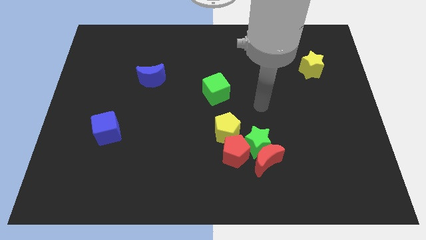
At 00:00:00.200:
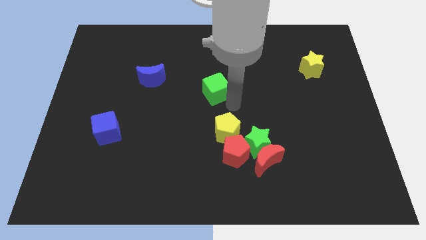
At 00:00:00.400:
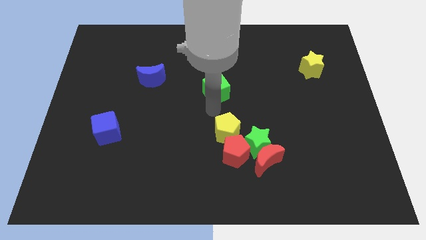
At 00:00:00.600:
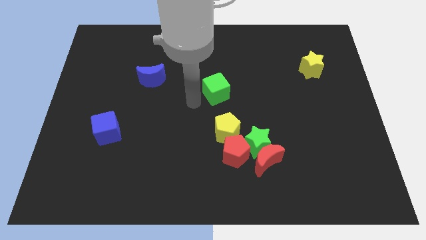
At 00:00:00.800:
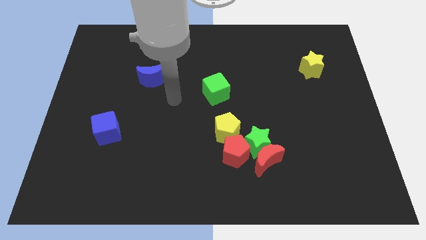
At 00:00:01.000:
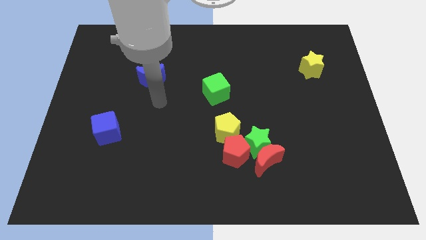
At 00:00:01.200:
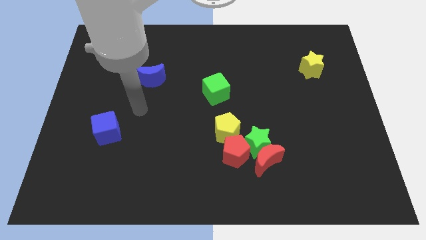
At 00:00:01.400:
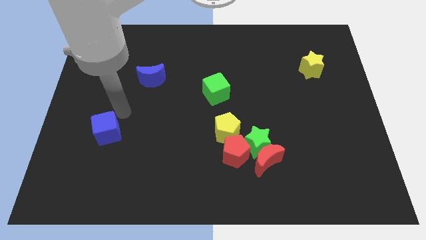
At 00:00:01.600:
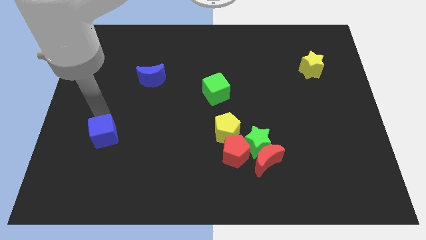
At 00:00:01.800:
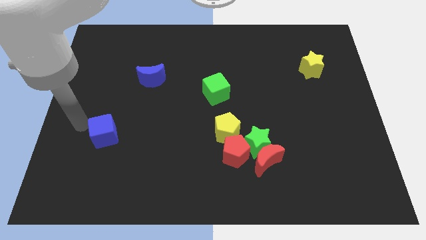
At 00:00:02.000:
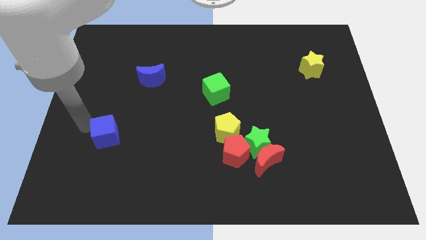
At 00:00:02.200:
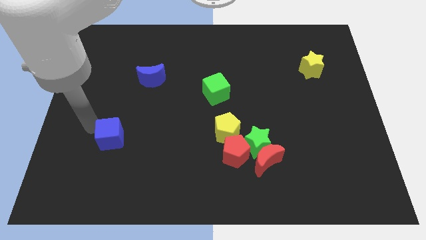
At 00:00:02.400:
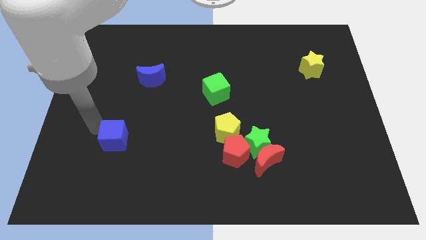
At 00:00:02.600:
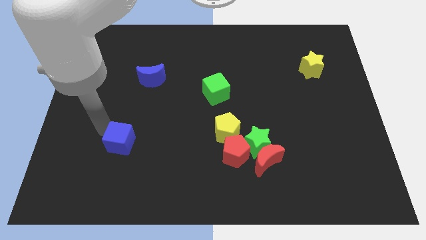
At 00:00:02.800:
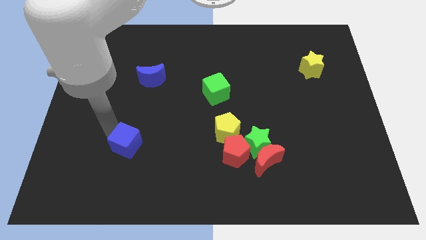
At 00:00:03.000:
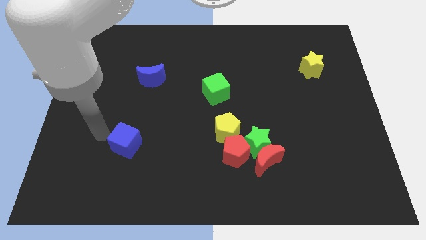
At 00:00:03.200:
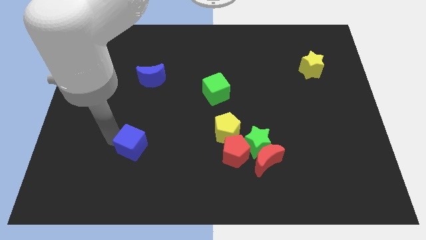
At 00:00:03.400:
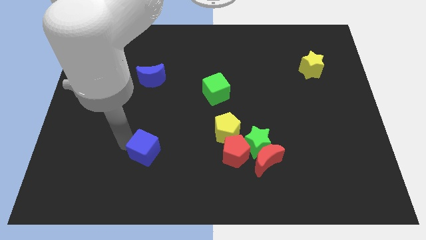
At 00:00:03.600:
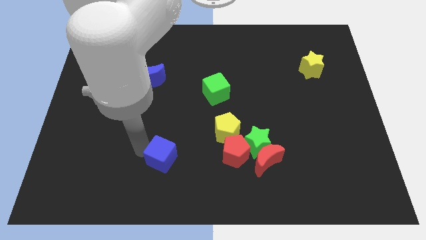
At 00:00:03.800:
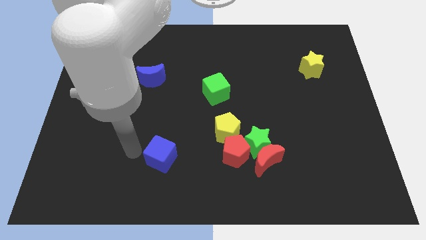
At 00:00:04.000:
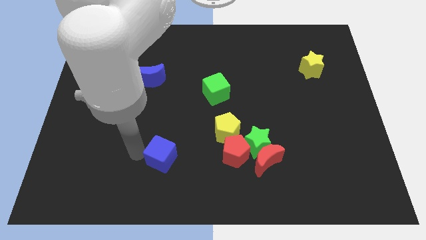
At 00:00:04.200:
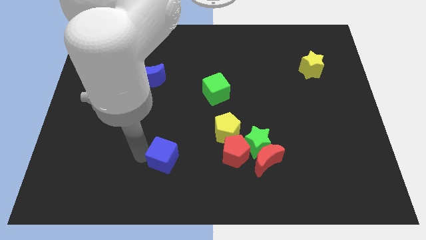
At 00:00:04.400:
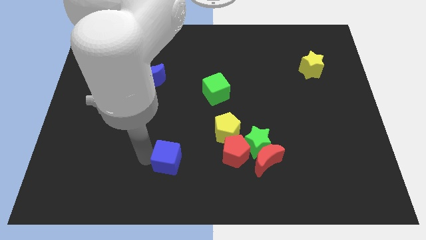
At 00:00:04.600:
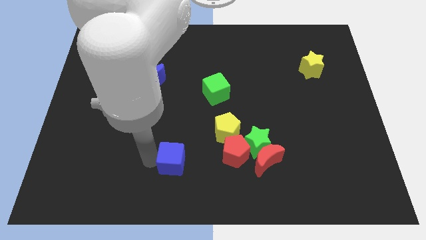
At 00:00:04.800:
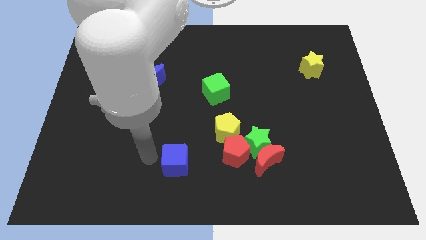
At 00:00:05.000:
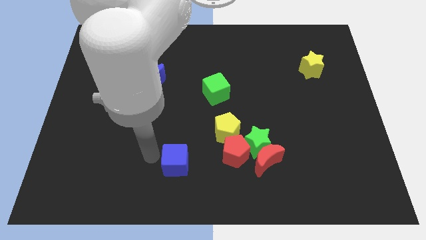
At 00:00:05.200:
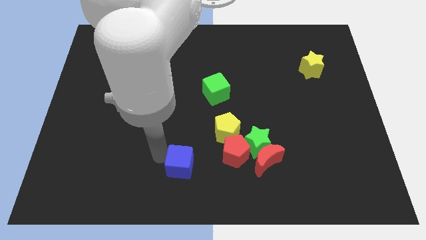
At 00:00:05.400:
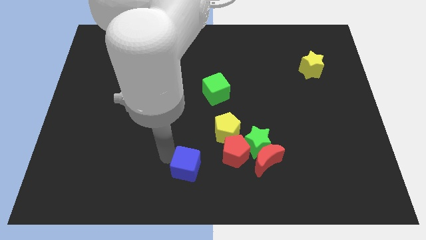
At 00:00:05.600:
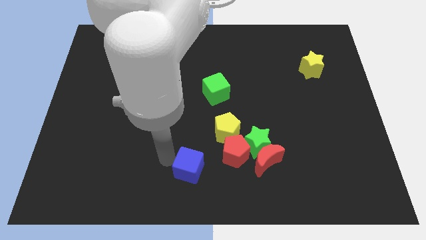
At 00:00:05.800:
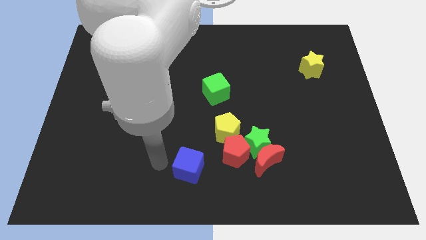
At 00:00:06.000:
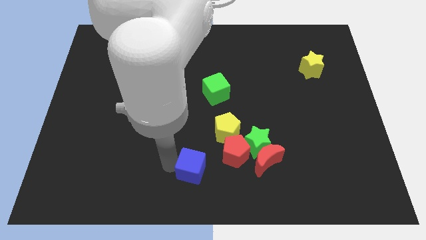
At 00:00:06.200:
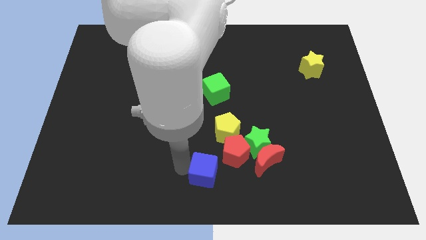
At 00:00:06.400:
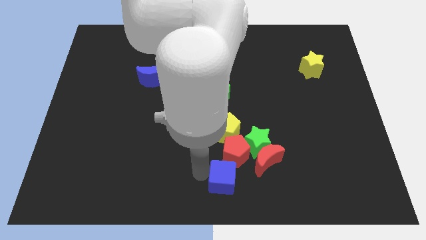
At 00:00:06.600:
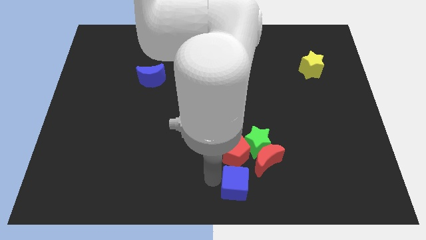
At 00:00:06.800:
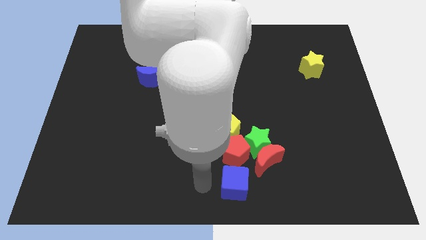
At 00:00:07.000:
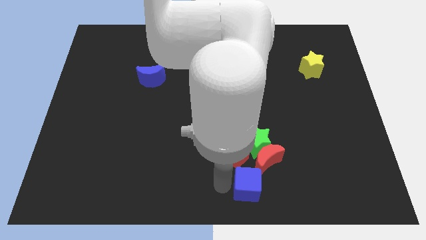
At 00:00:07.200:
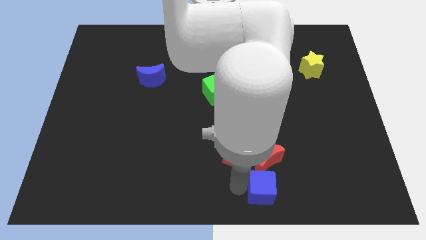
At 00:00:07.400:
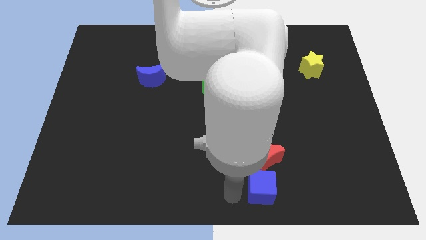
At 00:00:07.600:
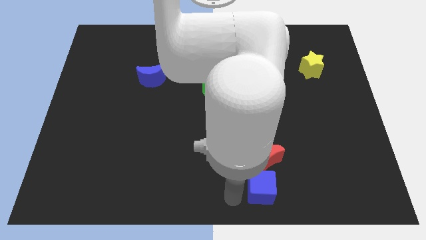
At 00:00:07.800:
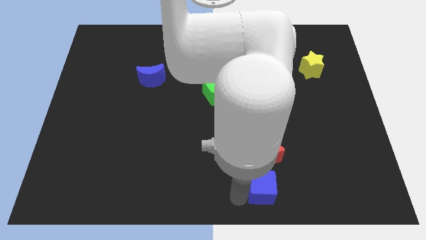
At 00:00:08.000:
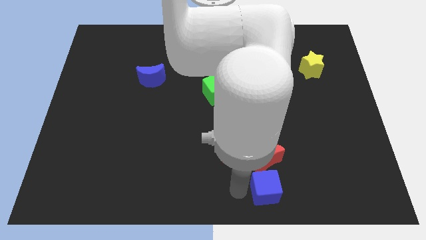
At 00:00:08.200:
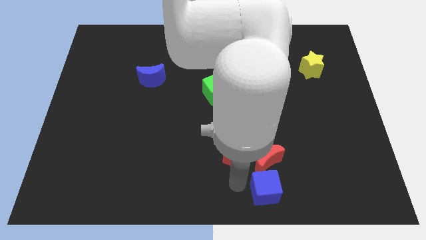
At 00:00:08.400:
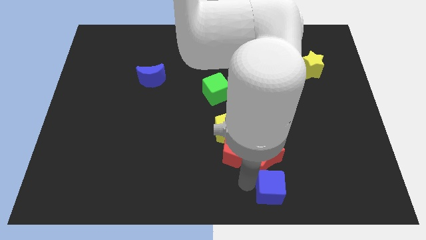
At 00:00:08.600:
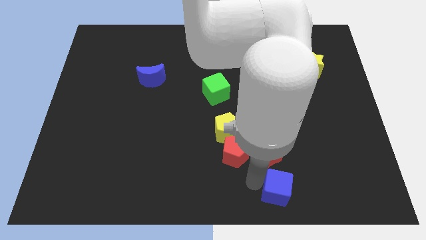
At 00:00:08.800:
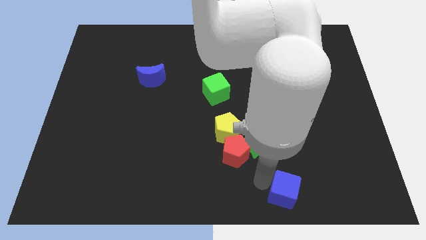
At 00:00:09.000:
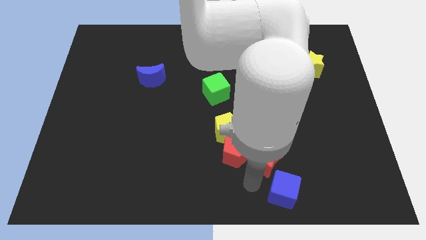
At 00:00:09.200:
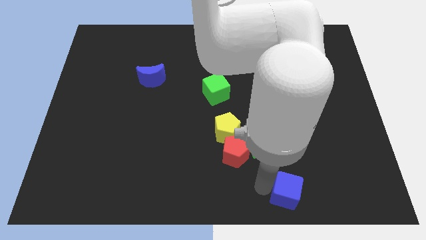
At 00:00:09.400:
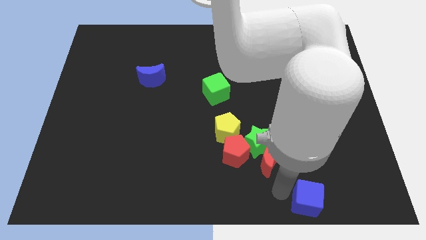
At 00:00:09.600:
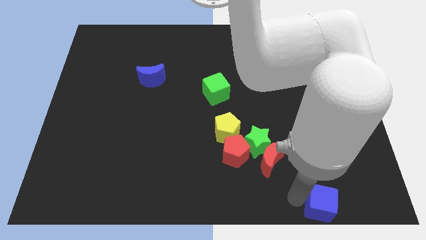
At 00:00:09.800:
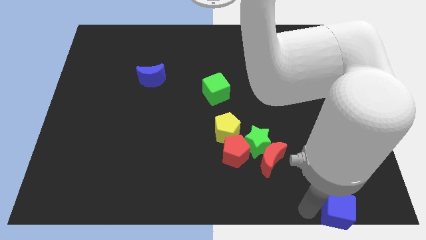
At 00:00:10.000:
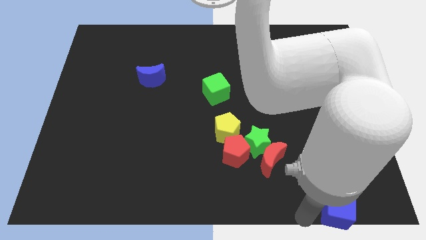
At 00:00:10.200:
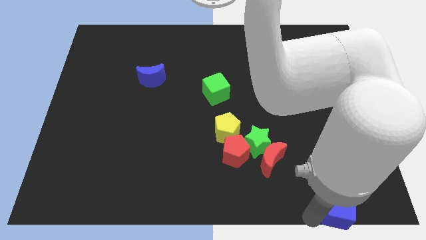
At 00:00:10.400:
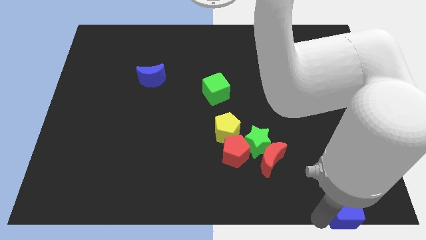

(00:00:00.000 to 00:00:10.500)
move the blue cube to the bottom right of the board
